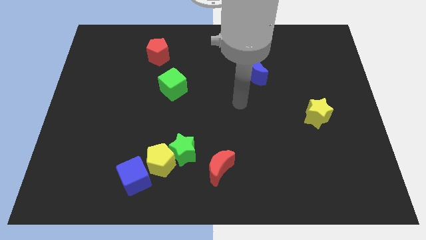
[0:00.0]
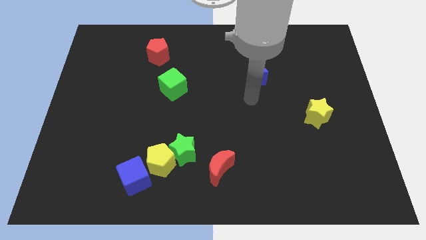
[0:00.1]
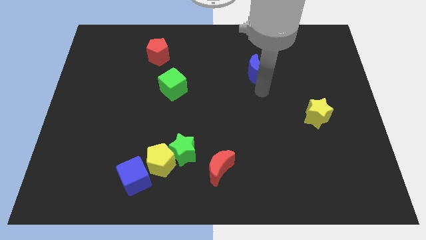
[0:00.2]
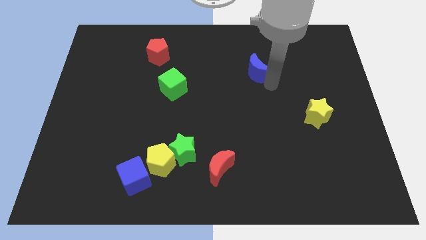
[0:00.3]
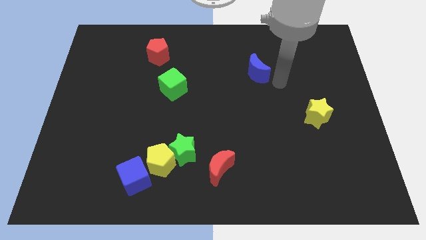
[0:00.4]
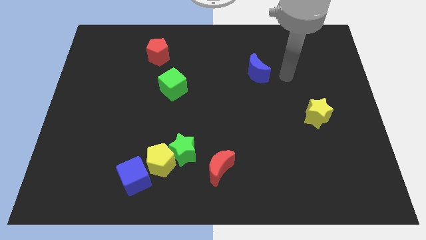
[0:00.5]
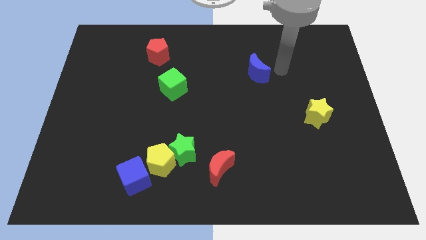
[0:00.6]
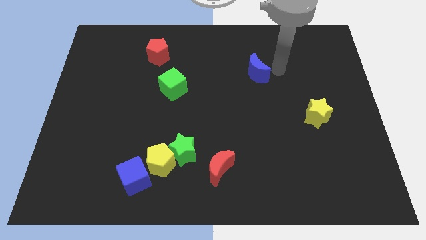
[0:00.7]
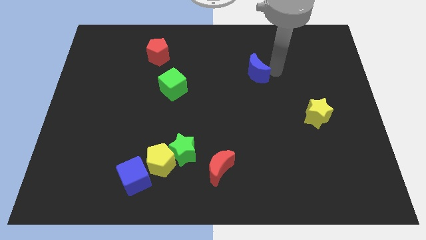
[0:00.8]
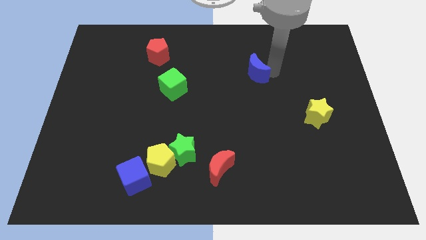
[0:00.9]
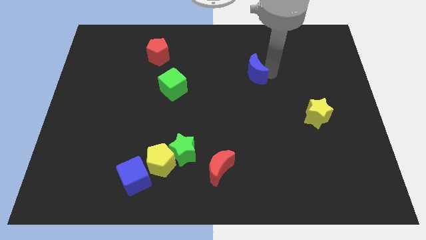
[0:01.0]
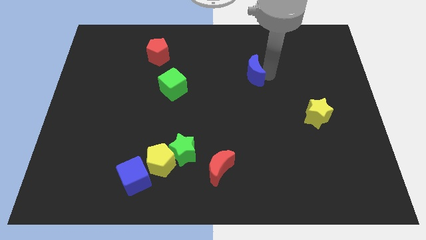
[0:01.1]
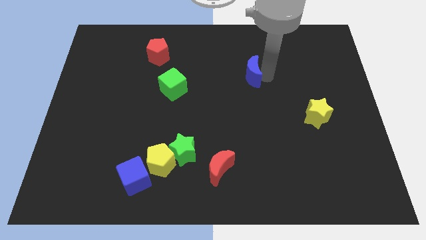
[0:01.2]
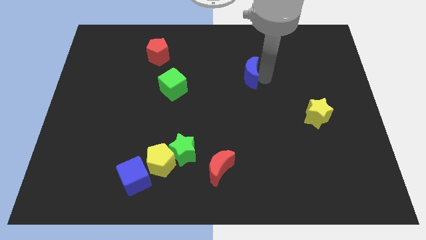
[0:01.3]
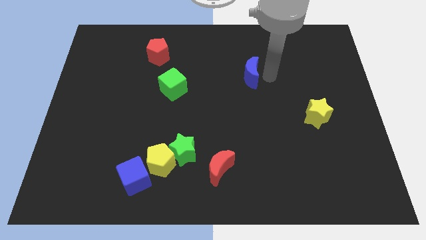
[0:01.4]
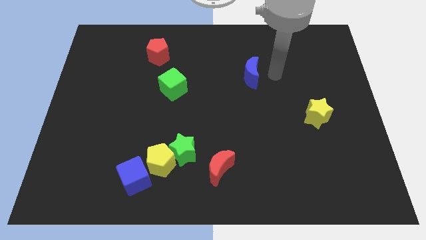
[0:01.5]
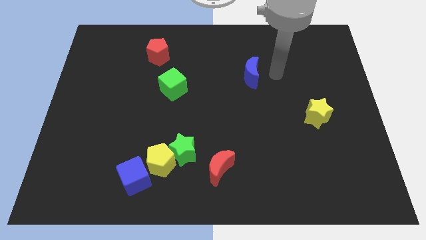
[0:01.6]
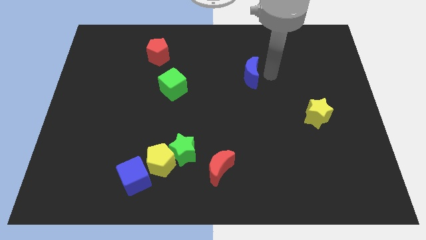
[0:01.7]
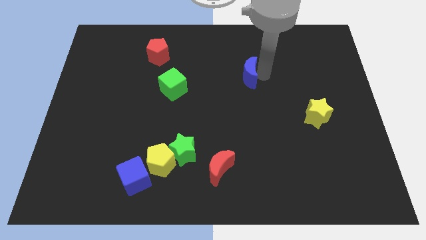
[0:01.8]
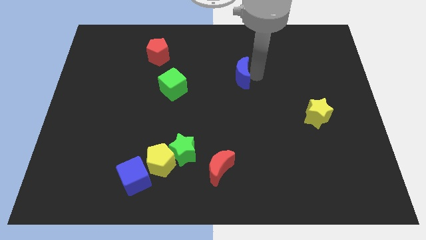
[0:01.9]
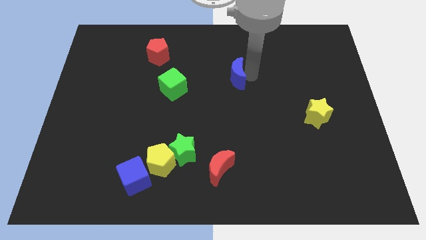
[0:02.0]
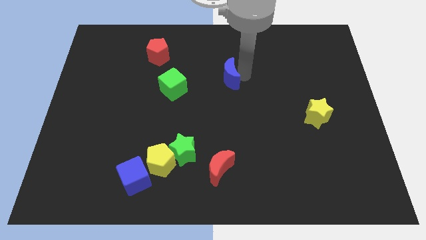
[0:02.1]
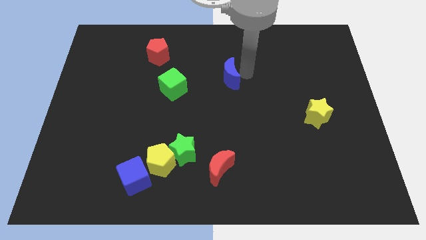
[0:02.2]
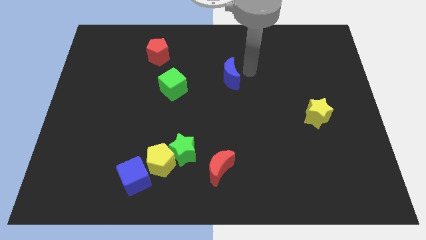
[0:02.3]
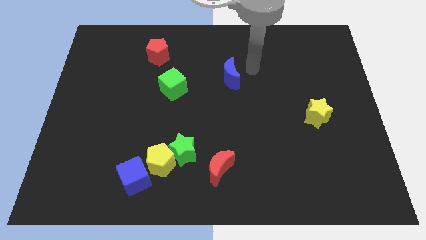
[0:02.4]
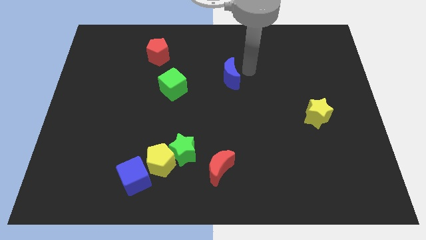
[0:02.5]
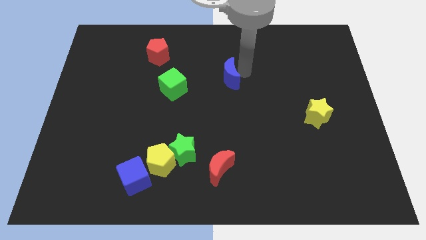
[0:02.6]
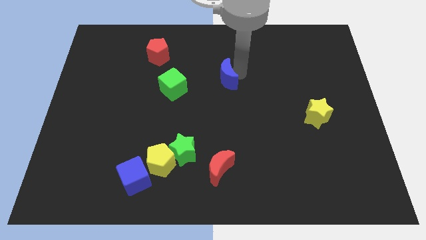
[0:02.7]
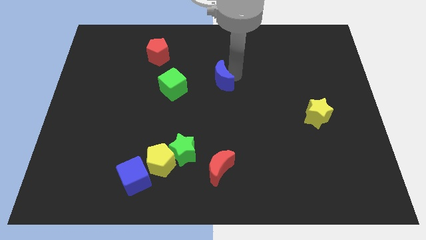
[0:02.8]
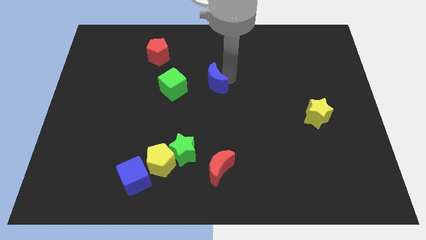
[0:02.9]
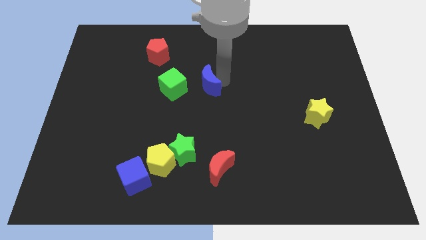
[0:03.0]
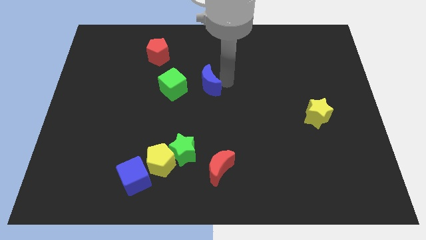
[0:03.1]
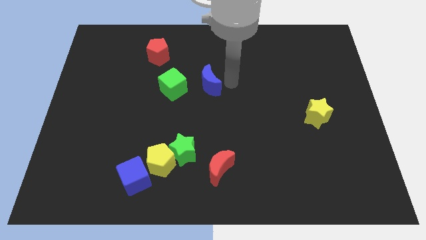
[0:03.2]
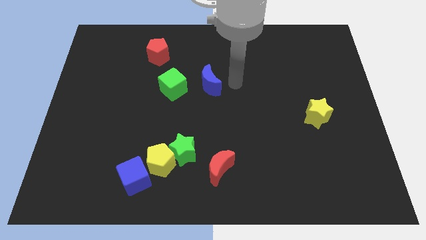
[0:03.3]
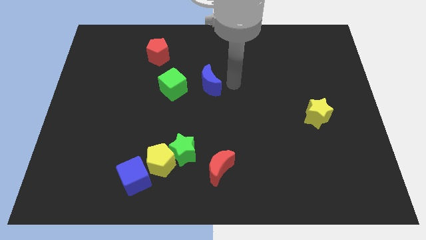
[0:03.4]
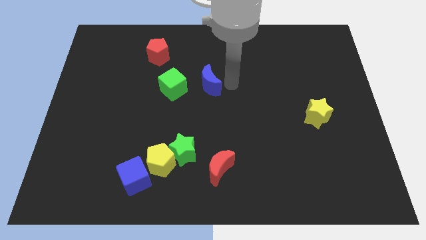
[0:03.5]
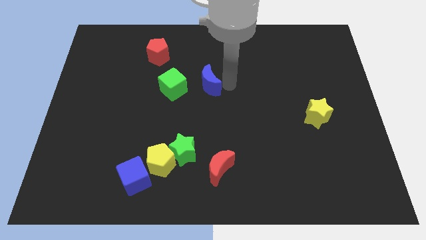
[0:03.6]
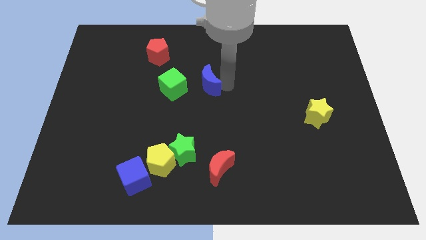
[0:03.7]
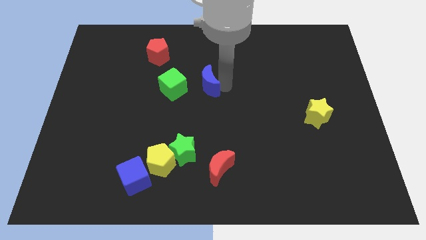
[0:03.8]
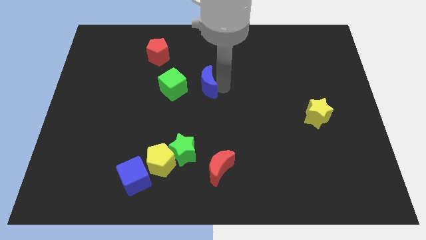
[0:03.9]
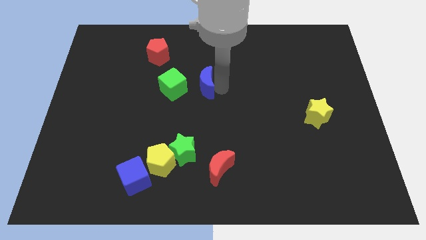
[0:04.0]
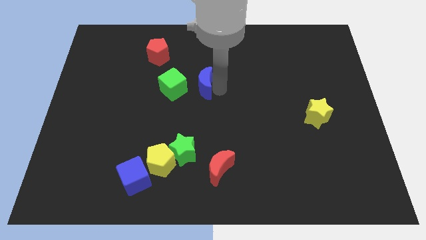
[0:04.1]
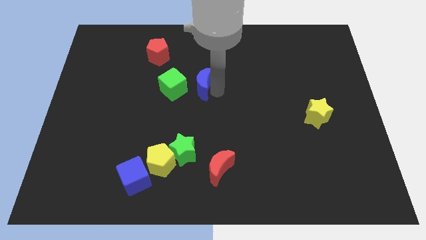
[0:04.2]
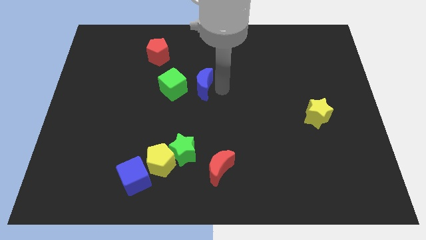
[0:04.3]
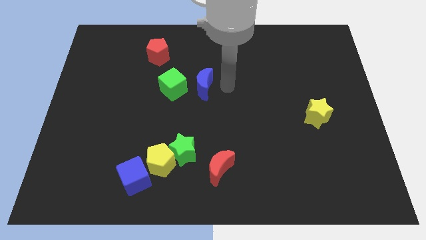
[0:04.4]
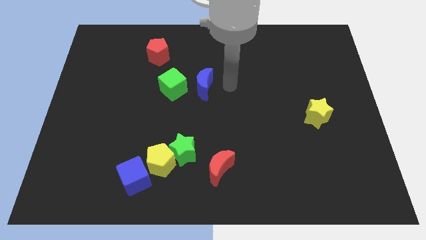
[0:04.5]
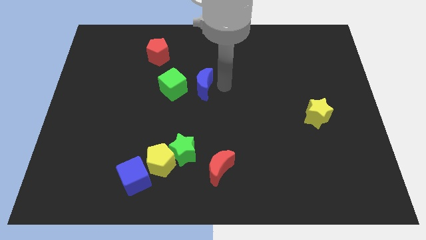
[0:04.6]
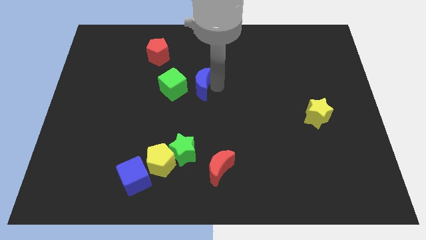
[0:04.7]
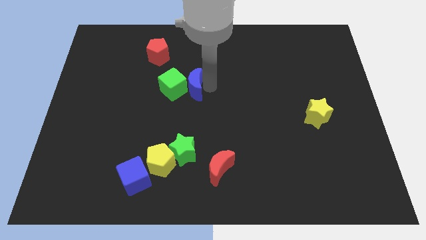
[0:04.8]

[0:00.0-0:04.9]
move the blue moon towards the green cube

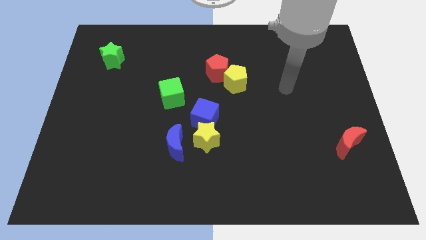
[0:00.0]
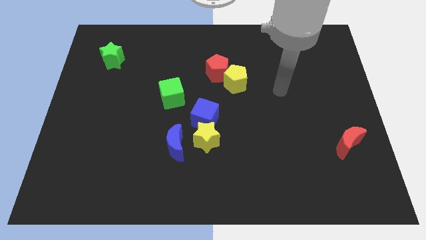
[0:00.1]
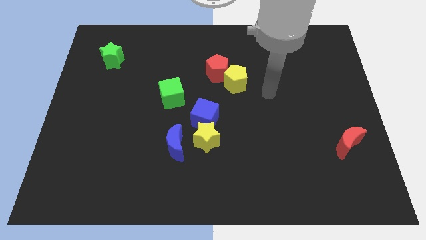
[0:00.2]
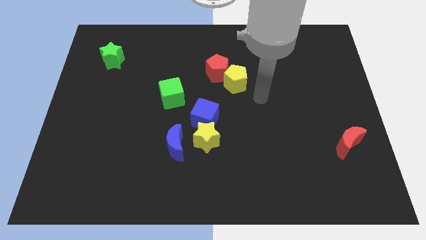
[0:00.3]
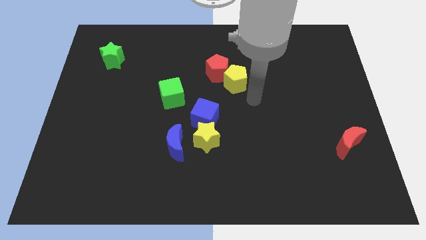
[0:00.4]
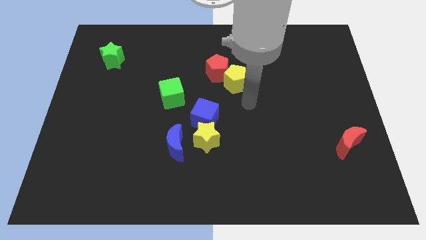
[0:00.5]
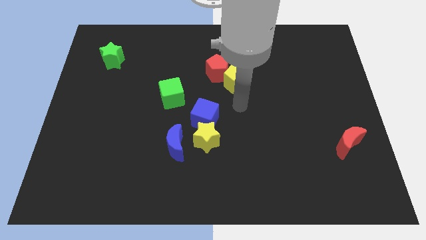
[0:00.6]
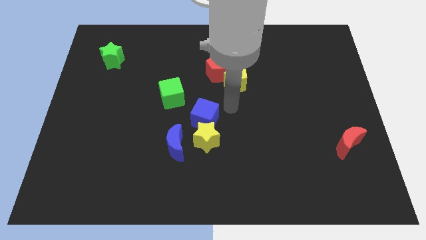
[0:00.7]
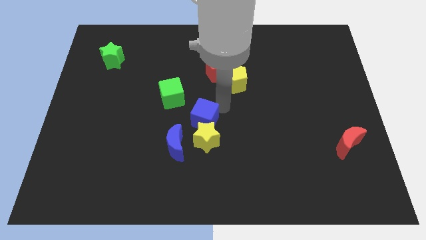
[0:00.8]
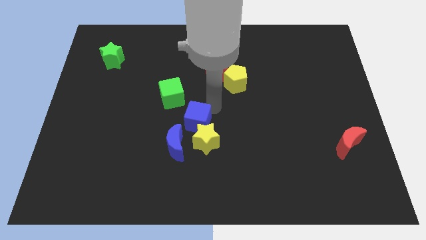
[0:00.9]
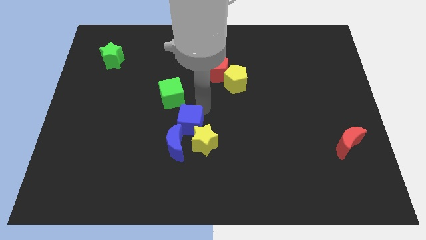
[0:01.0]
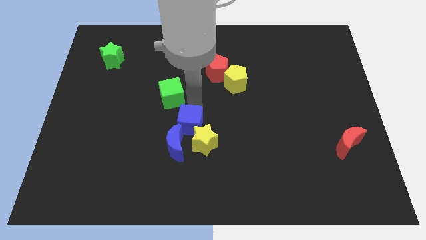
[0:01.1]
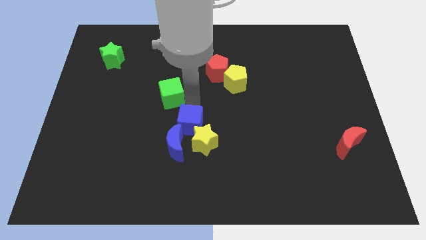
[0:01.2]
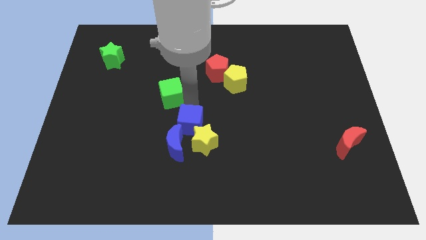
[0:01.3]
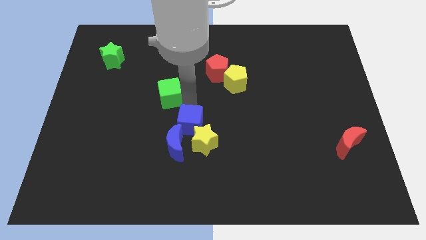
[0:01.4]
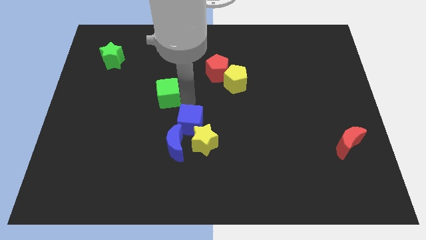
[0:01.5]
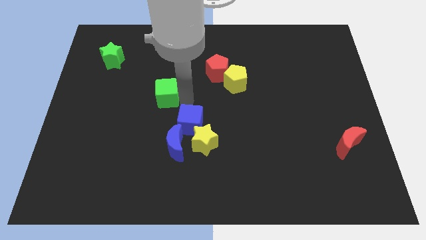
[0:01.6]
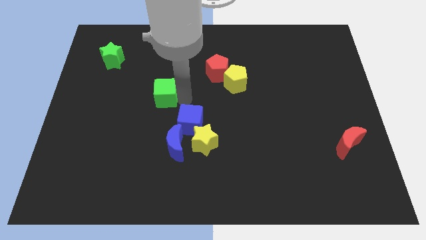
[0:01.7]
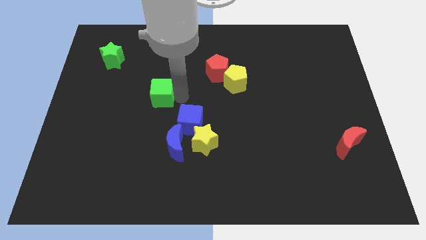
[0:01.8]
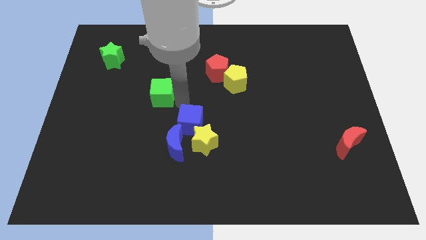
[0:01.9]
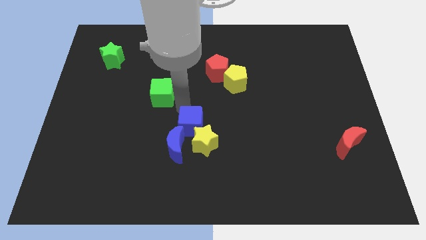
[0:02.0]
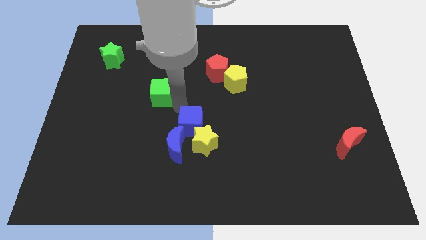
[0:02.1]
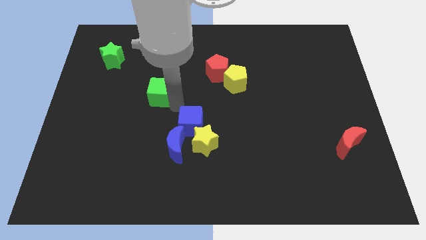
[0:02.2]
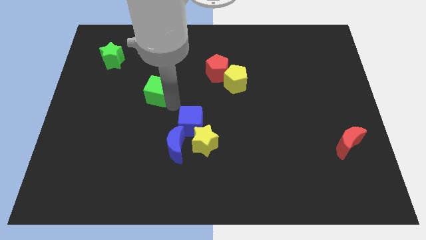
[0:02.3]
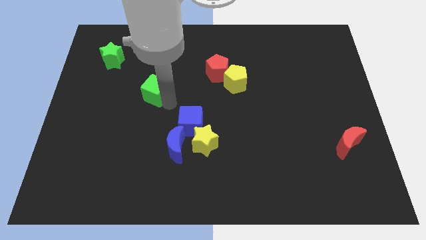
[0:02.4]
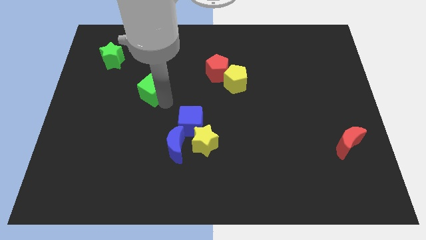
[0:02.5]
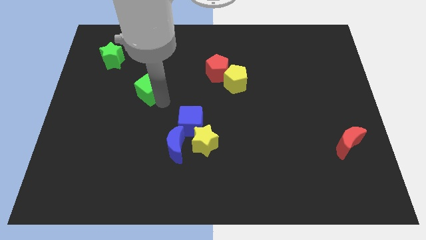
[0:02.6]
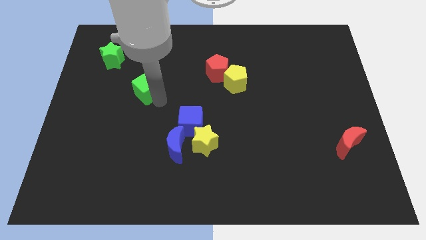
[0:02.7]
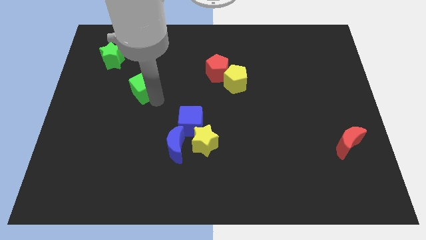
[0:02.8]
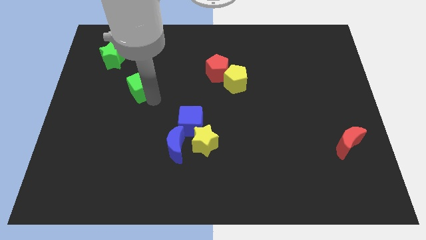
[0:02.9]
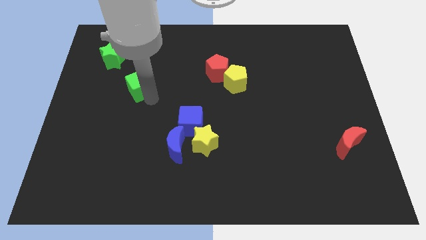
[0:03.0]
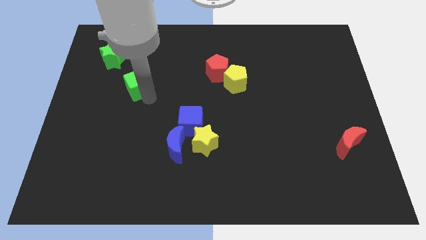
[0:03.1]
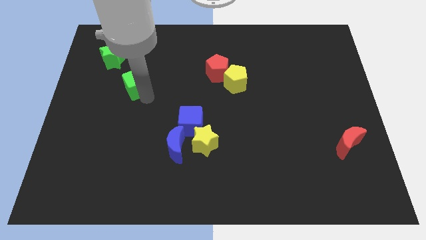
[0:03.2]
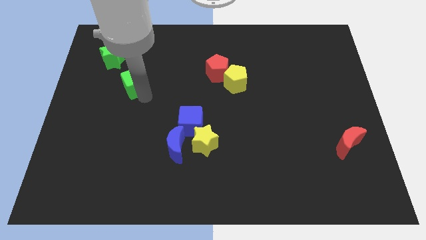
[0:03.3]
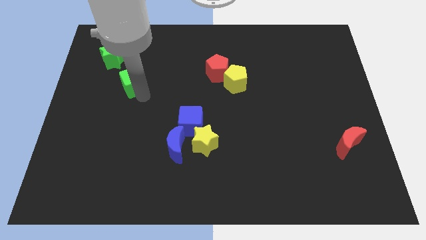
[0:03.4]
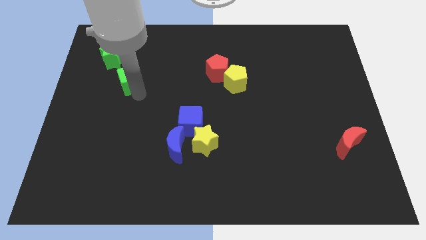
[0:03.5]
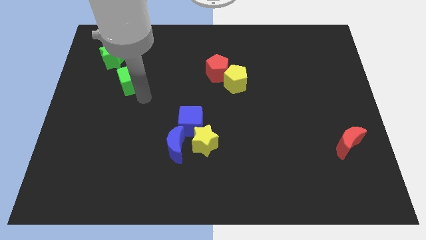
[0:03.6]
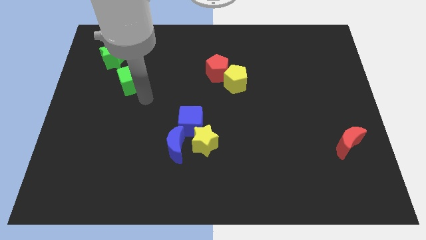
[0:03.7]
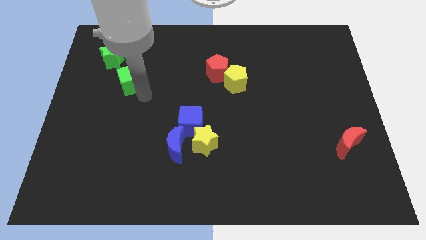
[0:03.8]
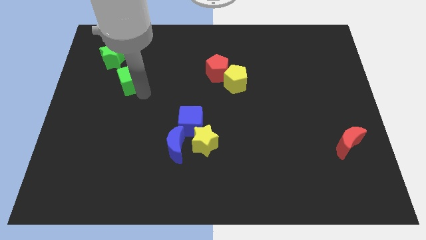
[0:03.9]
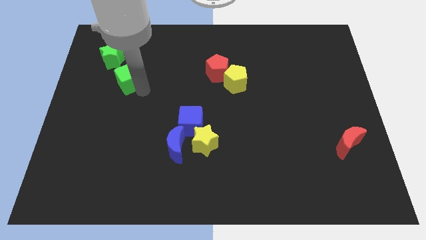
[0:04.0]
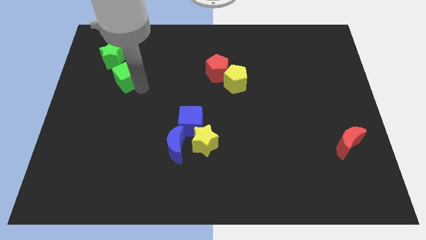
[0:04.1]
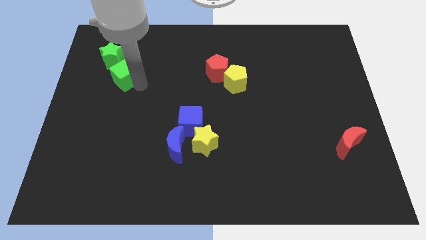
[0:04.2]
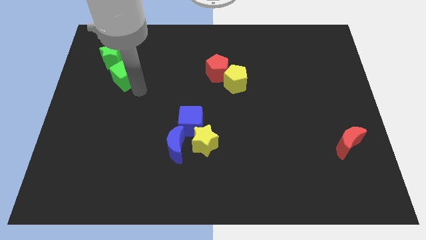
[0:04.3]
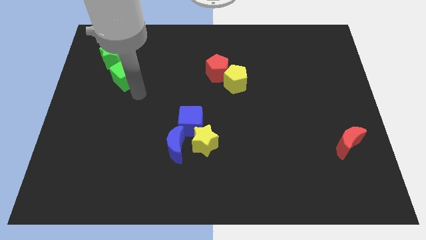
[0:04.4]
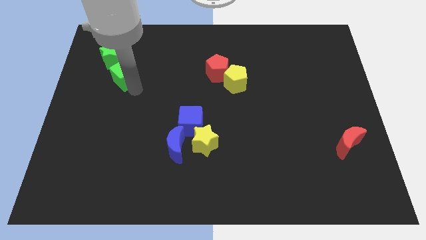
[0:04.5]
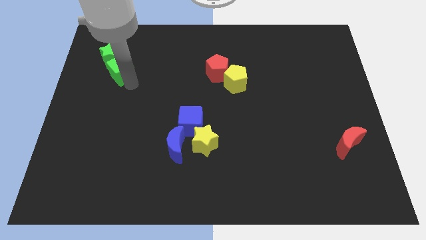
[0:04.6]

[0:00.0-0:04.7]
put the green cube close to the green star
